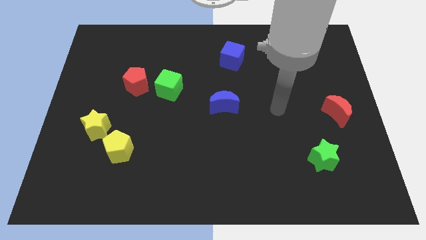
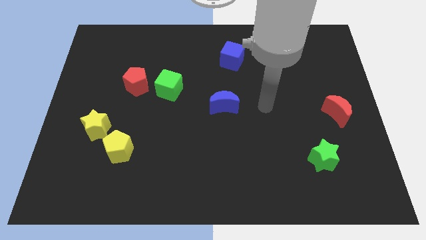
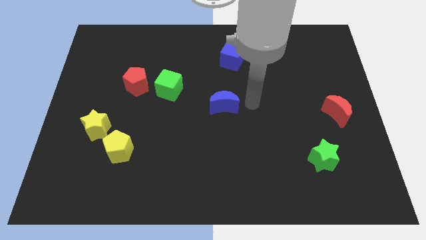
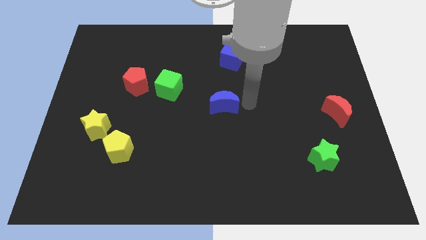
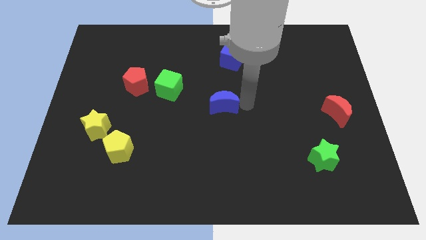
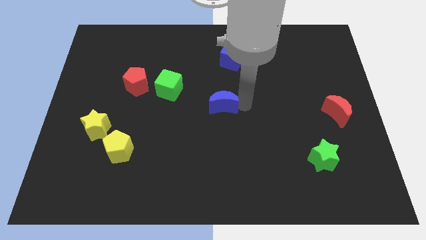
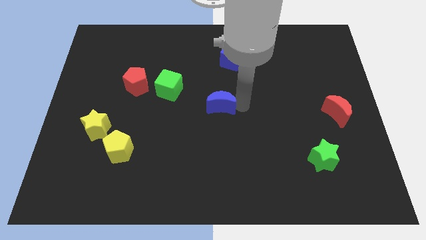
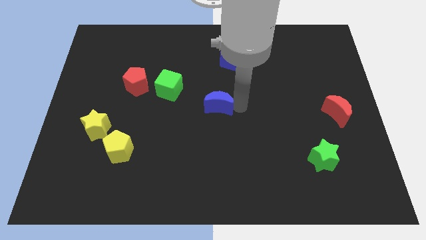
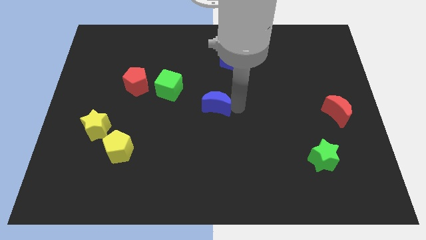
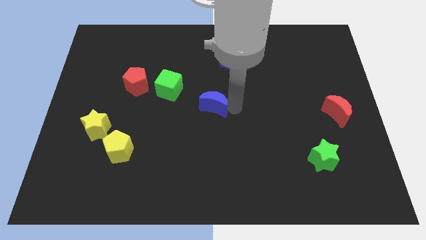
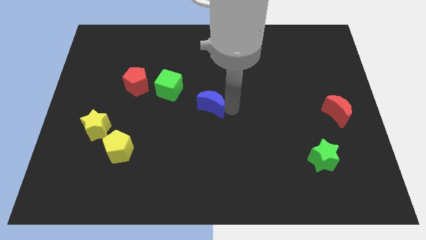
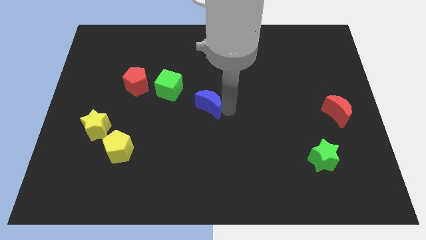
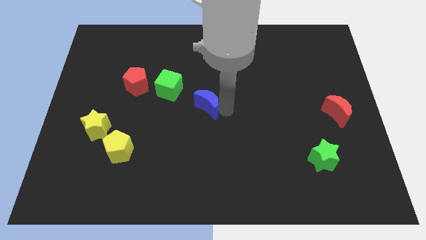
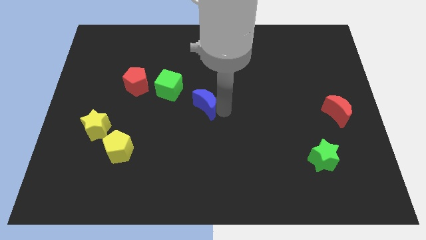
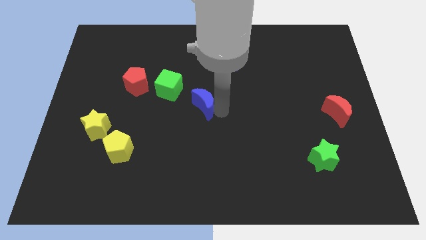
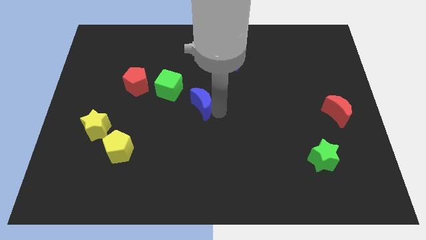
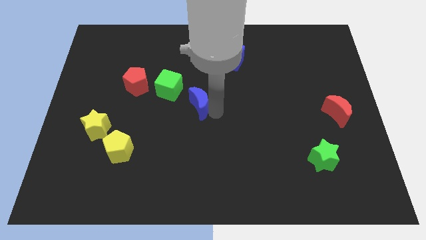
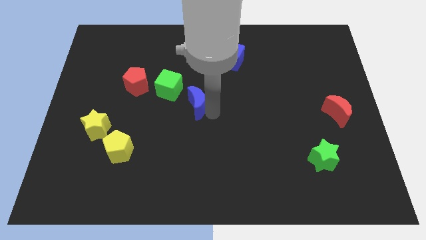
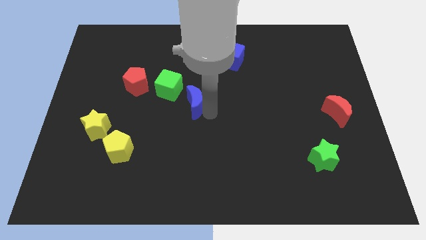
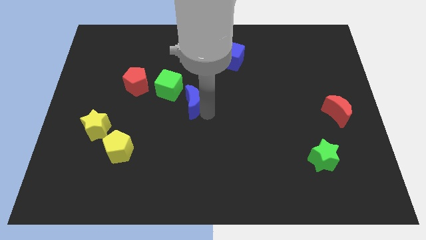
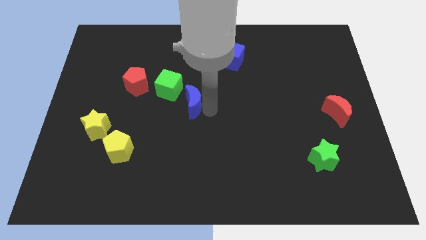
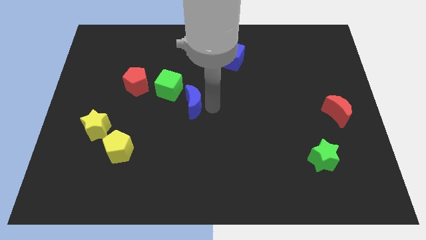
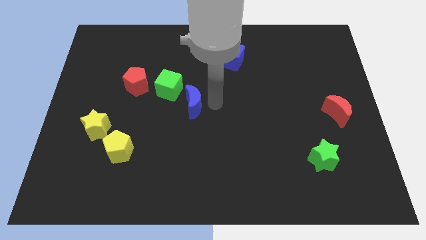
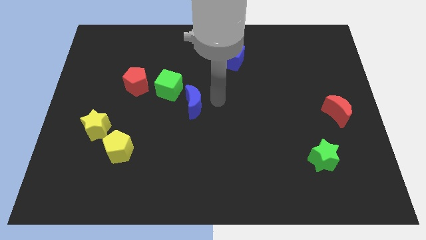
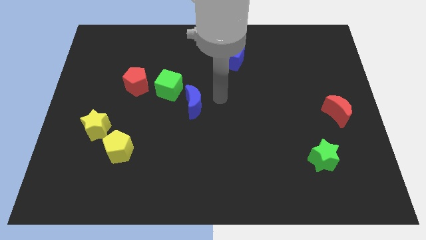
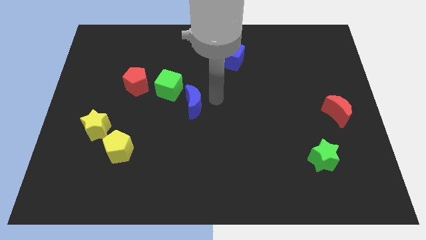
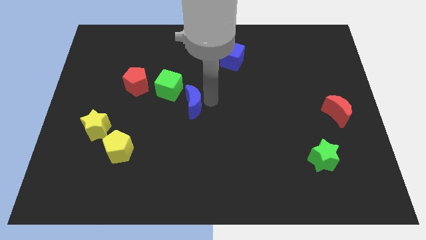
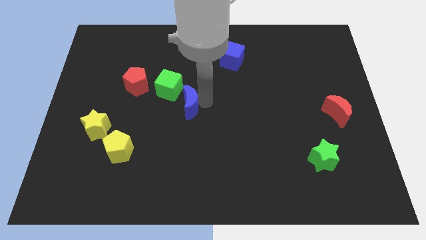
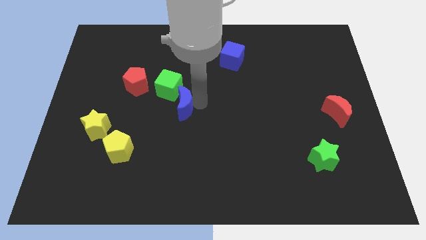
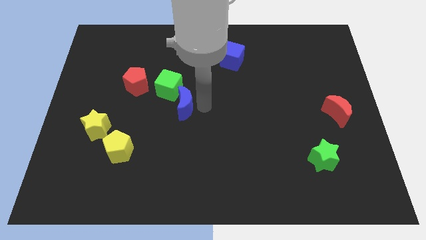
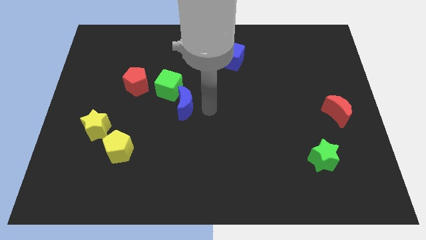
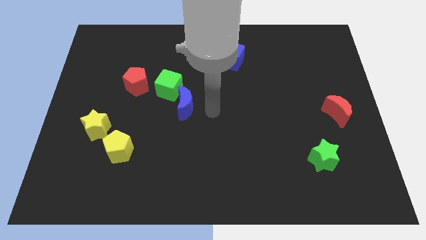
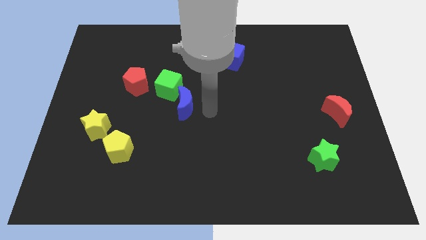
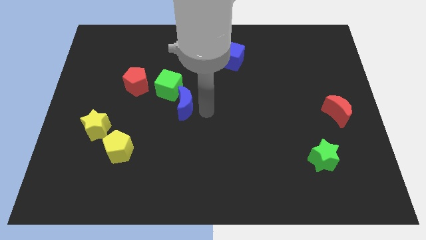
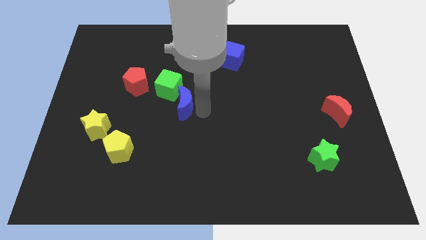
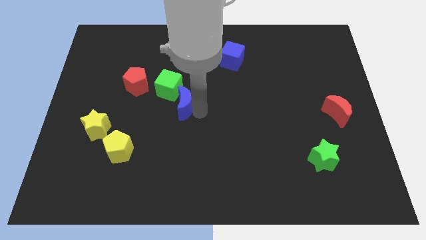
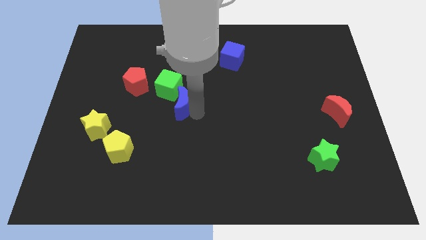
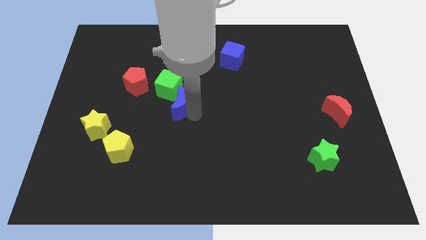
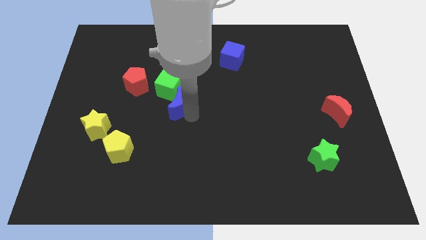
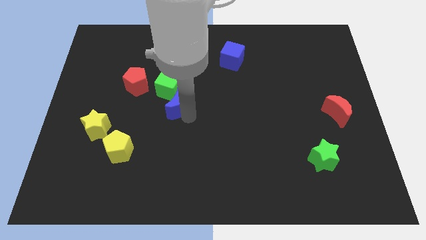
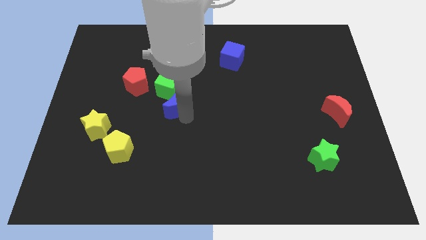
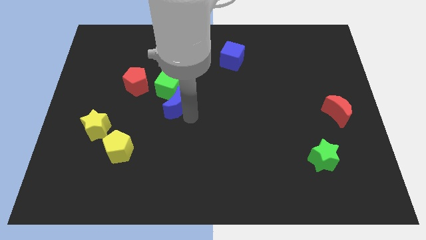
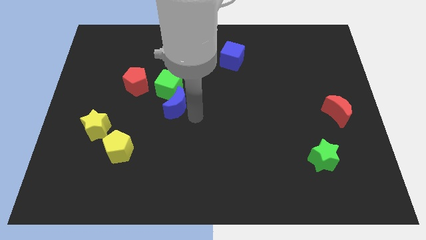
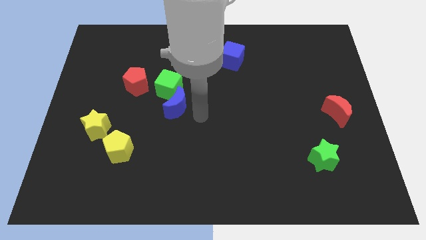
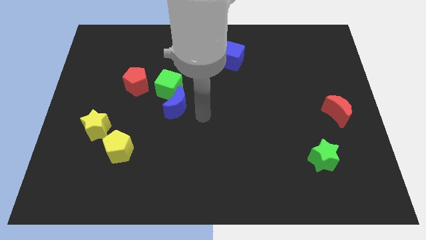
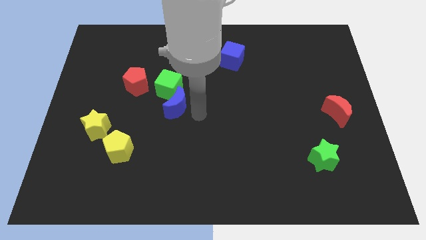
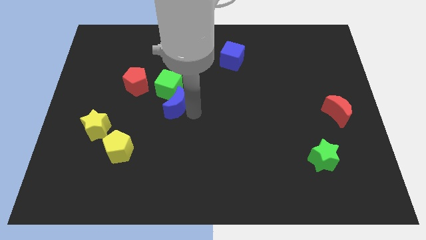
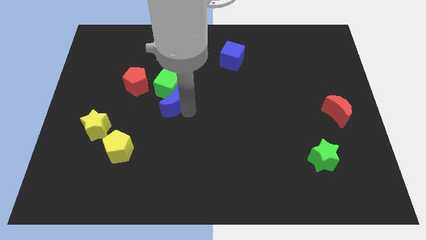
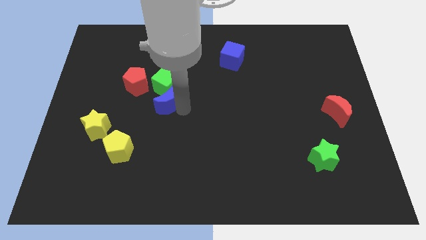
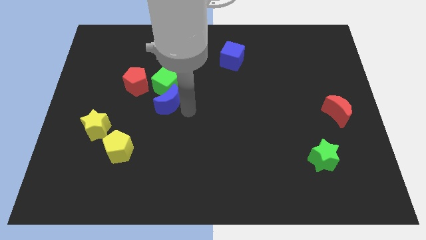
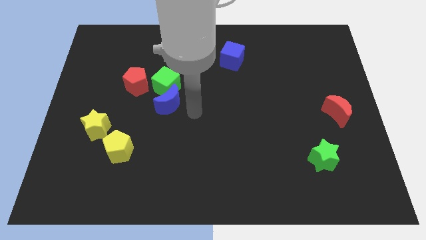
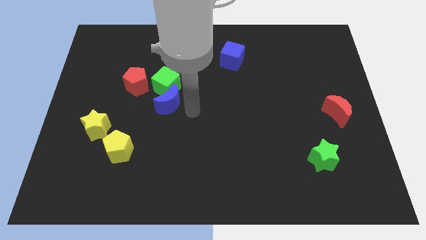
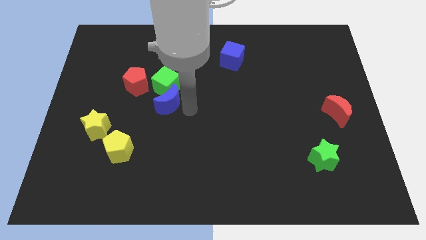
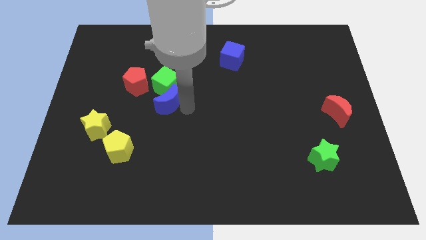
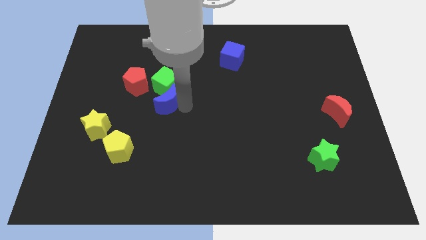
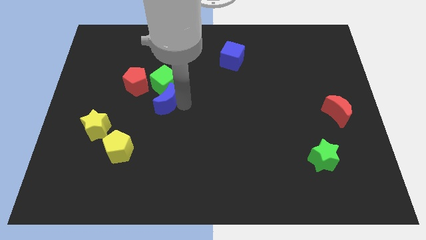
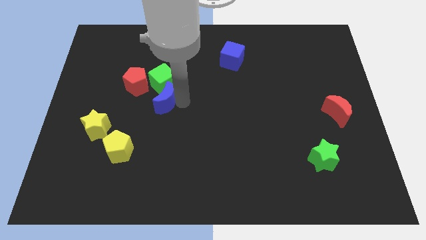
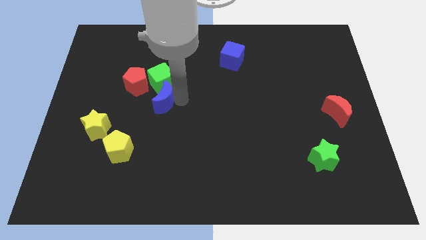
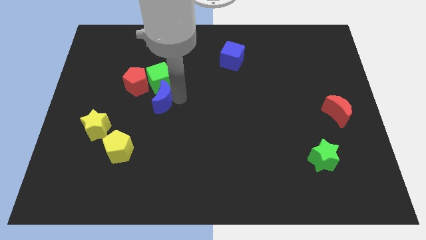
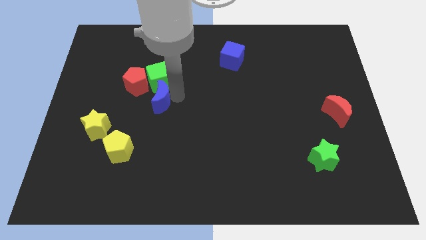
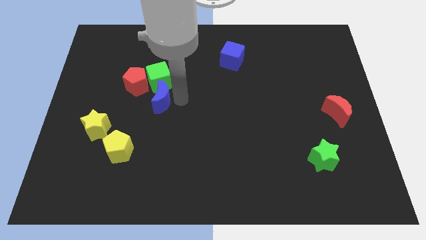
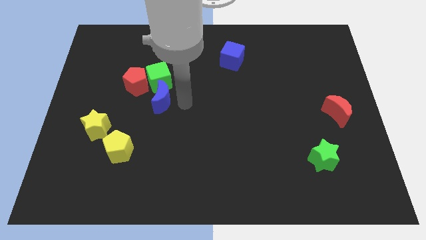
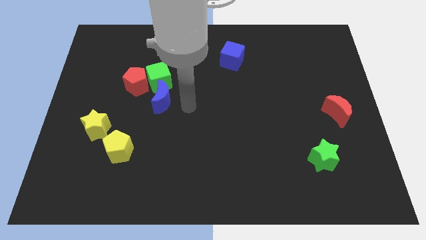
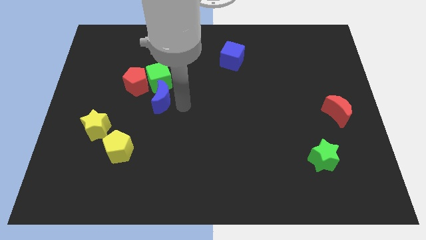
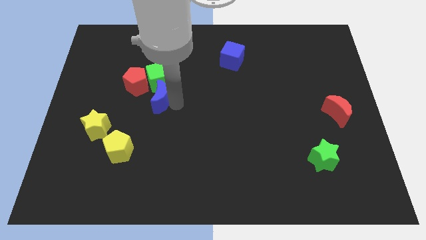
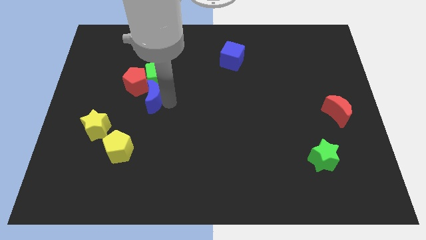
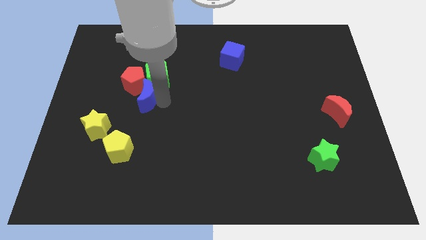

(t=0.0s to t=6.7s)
push the blue moon next to the red pentagon

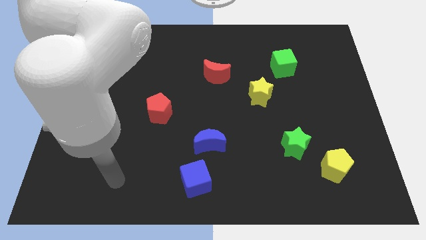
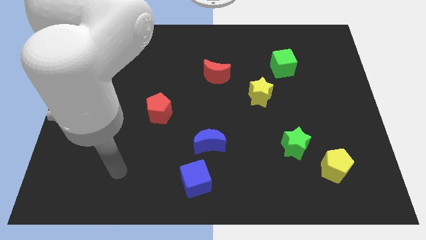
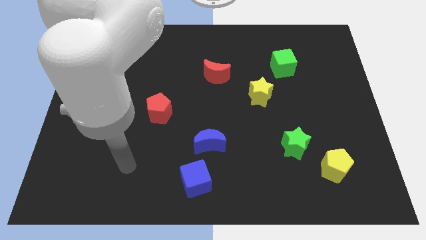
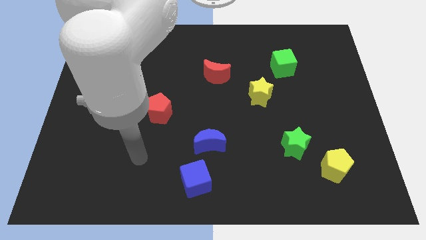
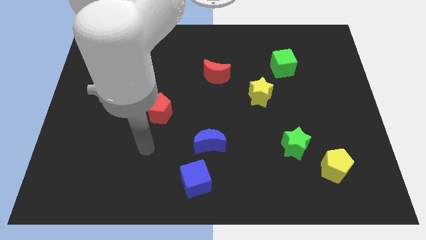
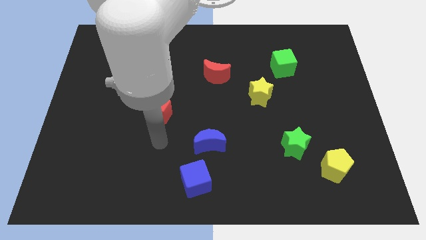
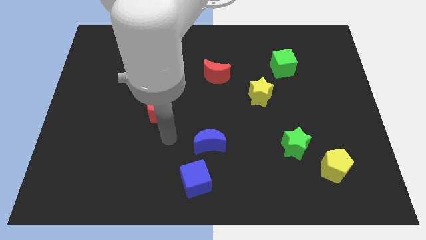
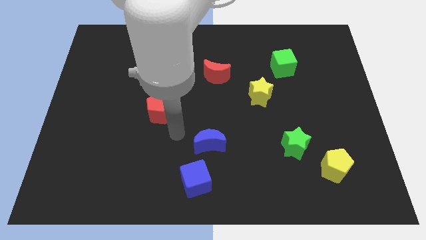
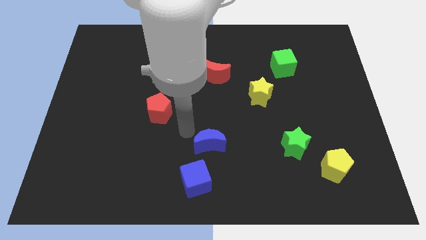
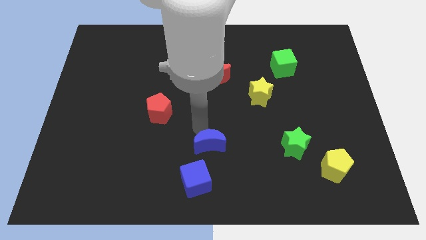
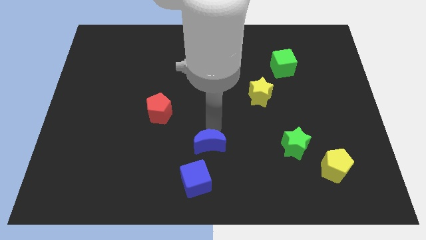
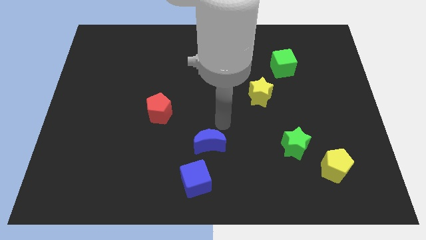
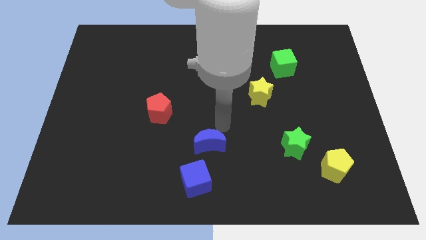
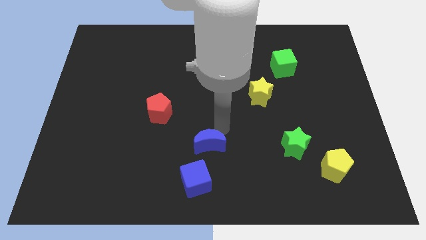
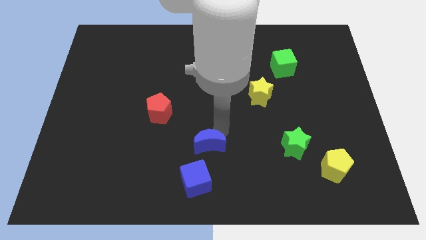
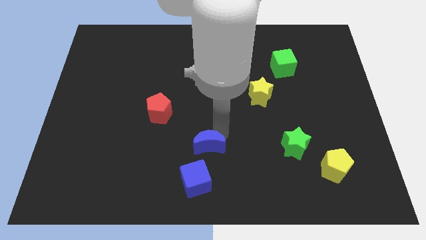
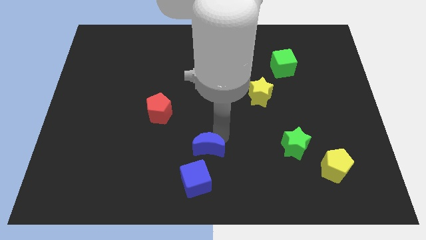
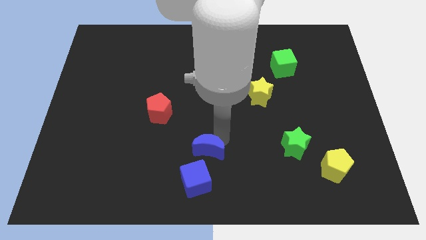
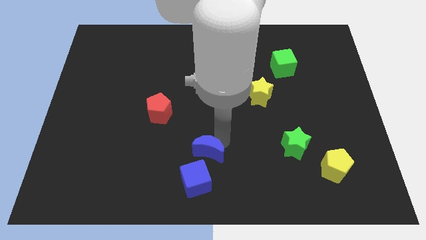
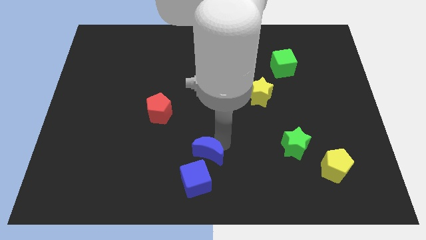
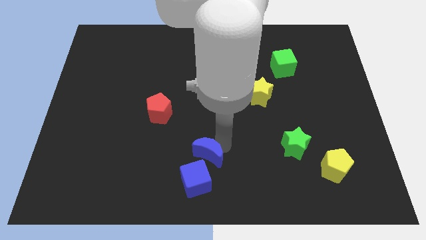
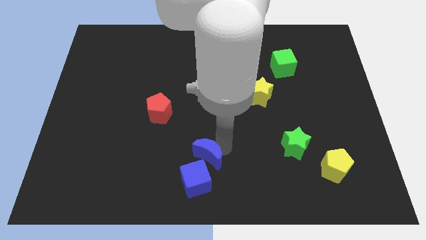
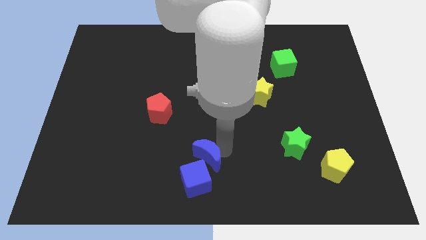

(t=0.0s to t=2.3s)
move the blue moon next to the blue cube
